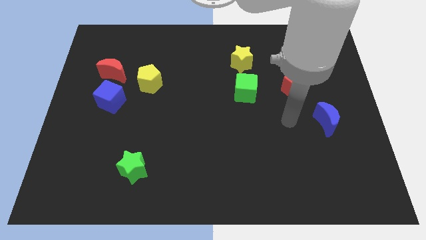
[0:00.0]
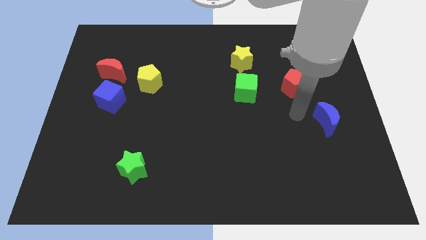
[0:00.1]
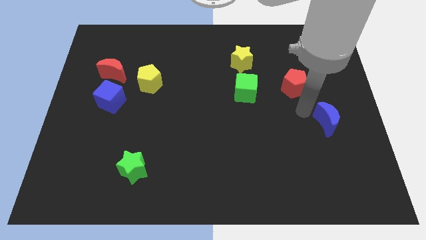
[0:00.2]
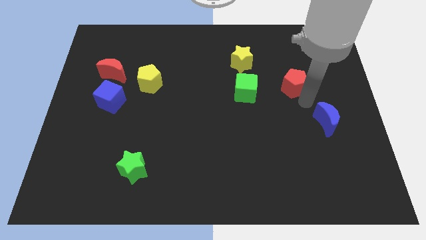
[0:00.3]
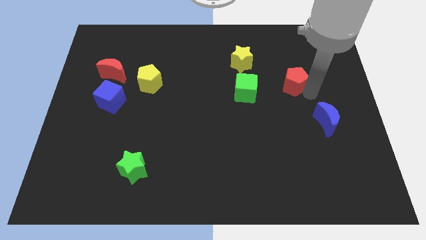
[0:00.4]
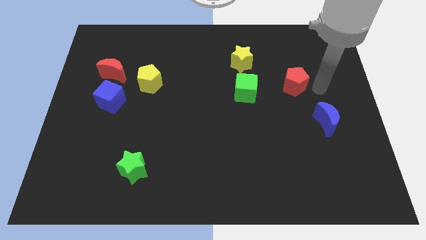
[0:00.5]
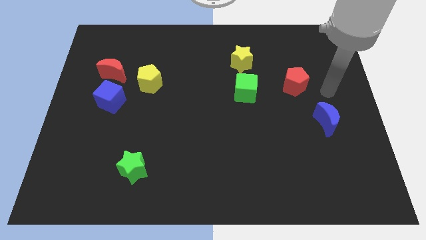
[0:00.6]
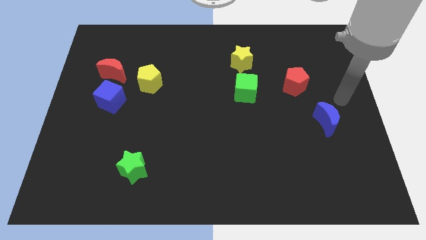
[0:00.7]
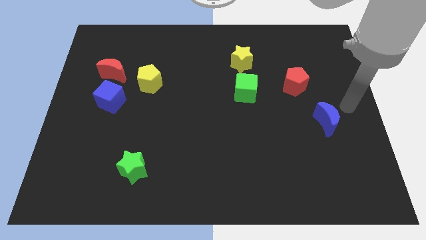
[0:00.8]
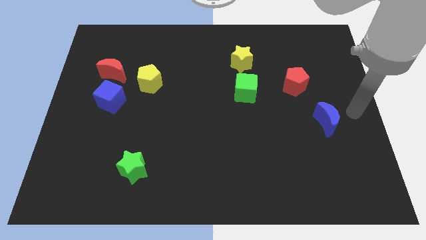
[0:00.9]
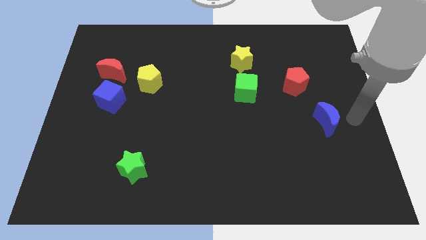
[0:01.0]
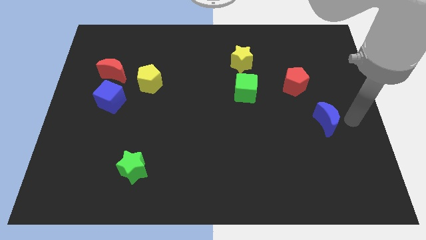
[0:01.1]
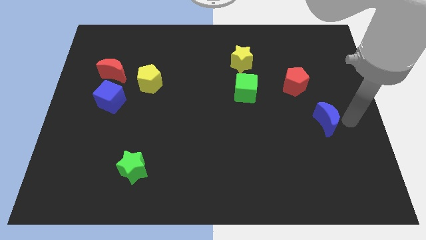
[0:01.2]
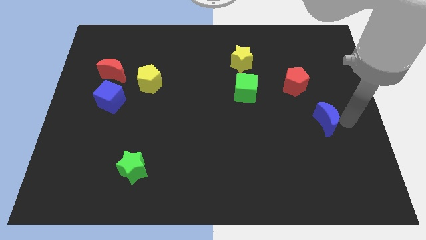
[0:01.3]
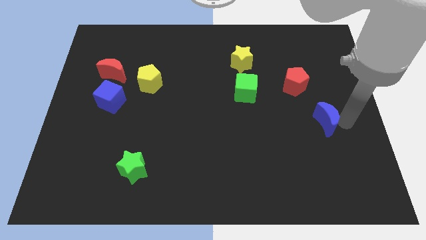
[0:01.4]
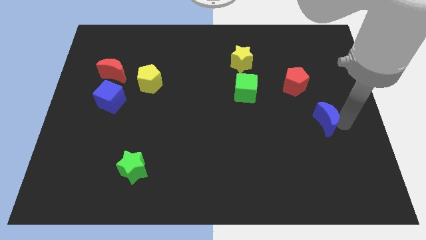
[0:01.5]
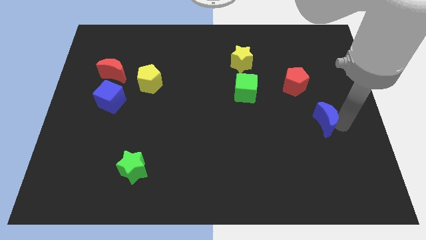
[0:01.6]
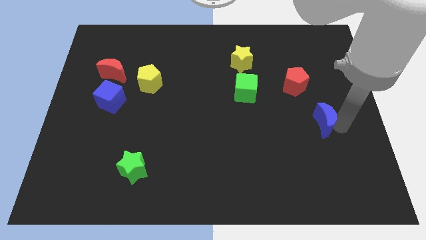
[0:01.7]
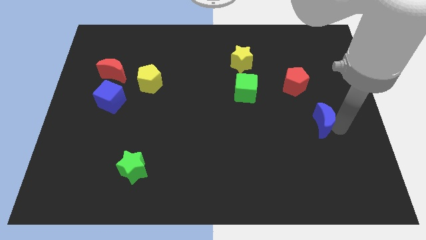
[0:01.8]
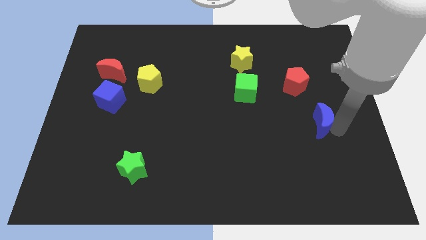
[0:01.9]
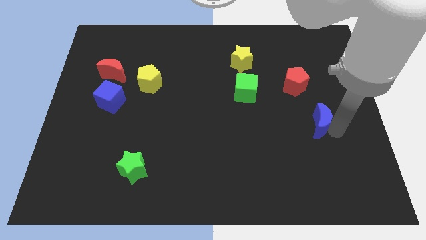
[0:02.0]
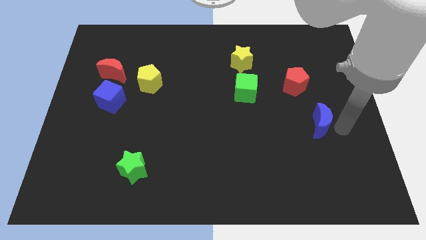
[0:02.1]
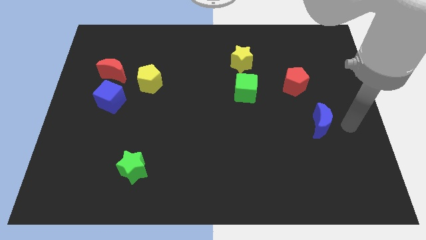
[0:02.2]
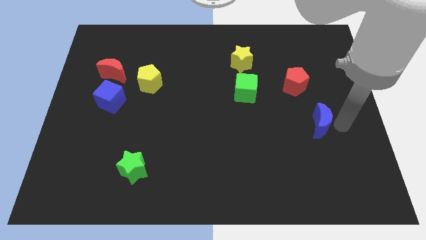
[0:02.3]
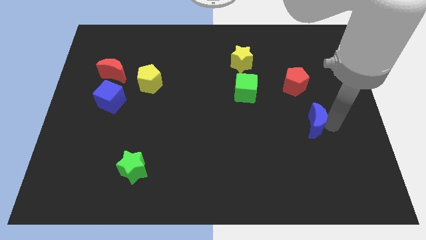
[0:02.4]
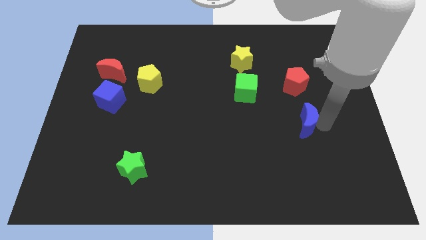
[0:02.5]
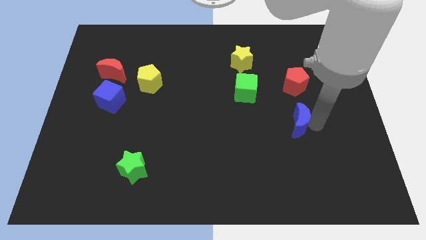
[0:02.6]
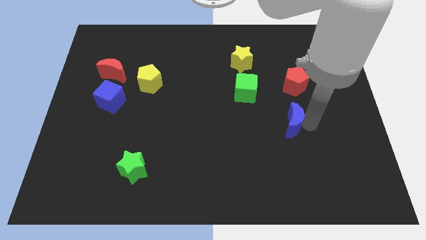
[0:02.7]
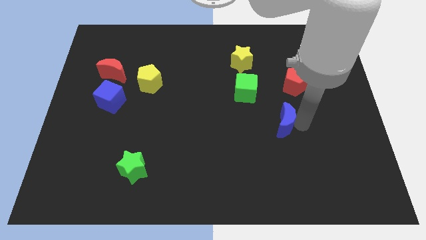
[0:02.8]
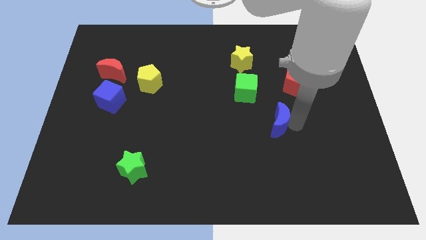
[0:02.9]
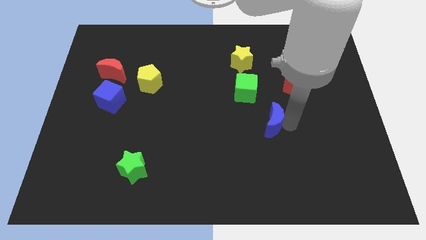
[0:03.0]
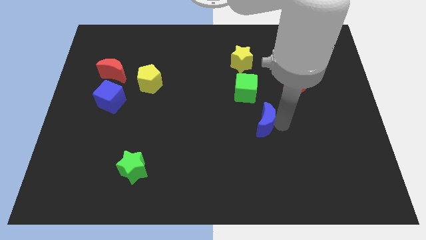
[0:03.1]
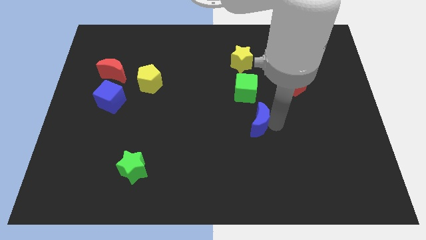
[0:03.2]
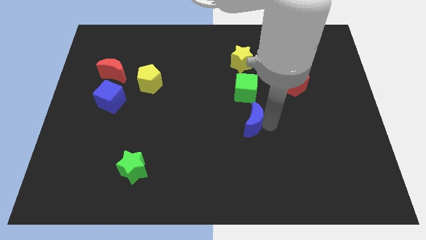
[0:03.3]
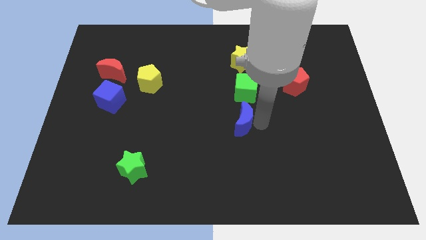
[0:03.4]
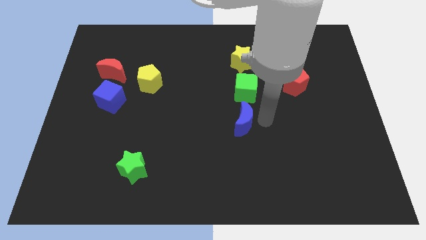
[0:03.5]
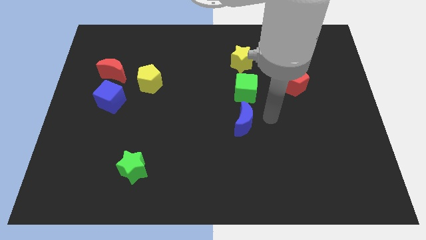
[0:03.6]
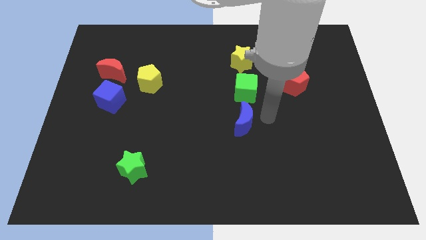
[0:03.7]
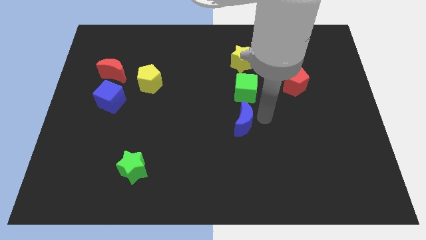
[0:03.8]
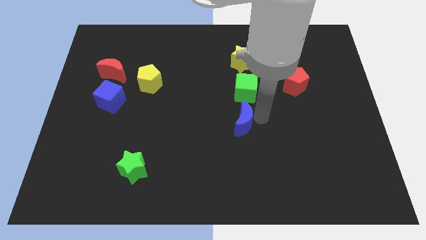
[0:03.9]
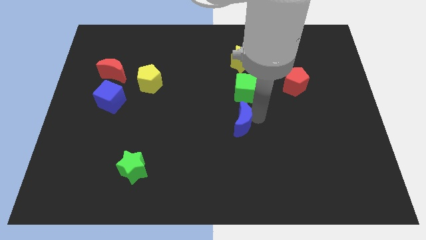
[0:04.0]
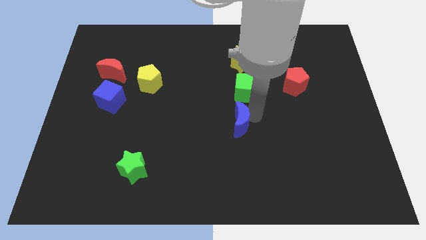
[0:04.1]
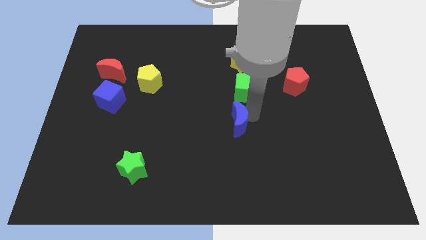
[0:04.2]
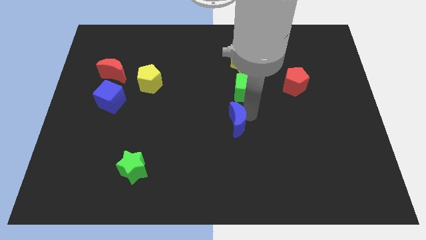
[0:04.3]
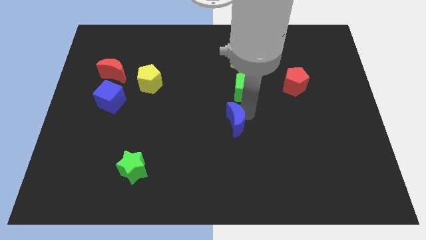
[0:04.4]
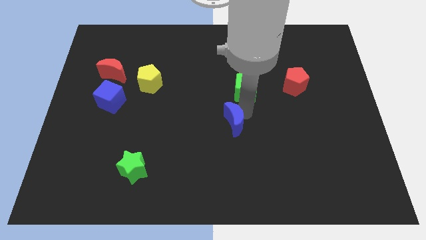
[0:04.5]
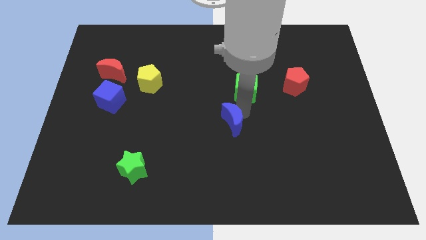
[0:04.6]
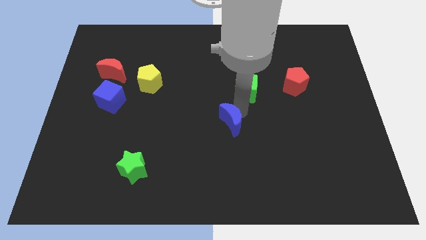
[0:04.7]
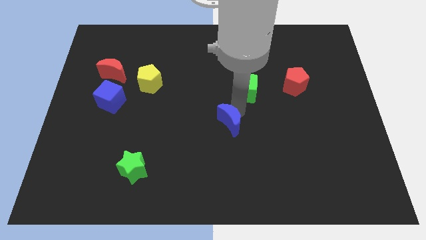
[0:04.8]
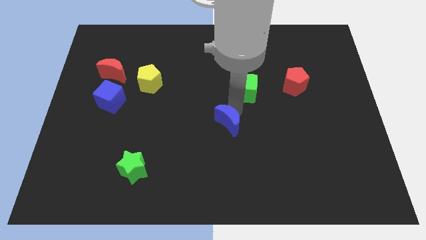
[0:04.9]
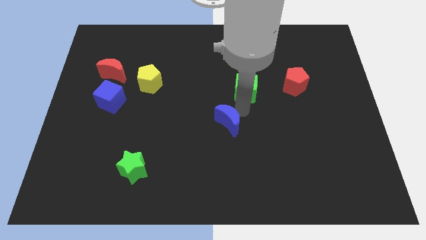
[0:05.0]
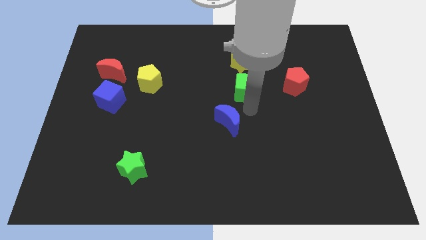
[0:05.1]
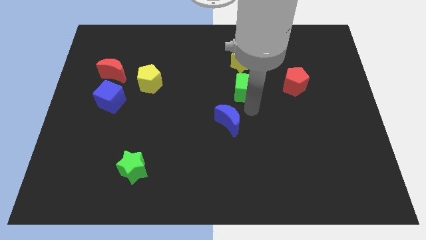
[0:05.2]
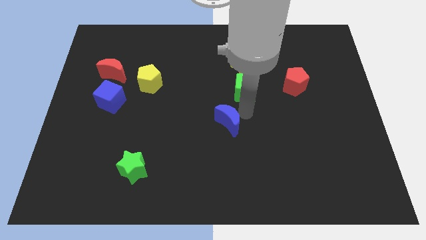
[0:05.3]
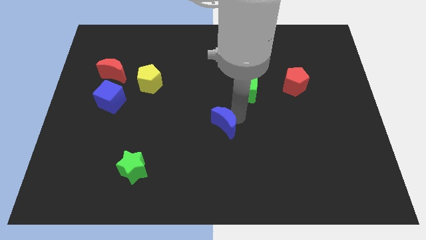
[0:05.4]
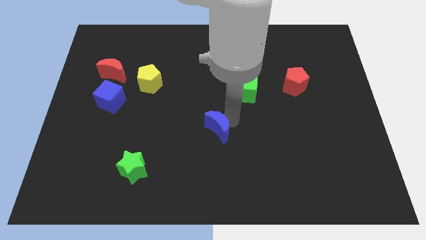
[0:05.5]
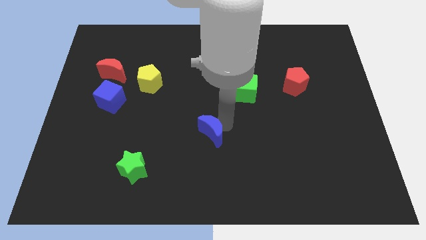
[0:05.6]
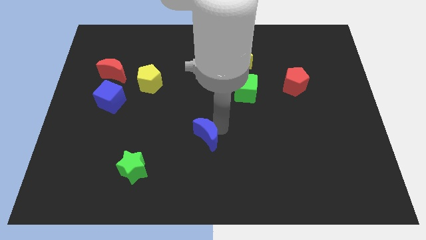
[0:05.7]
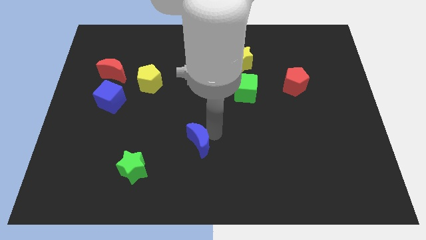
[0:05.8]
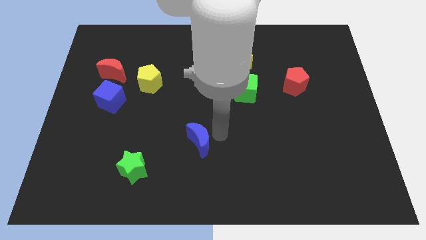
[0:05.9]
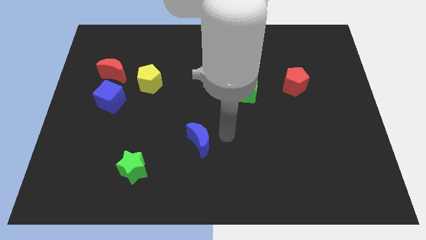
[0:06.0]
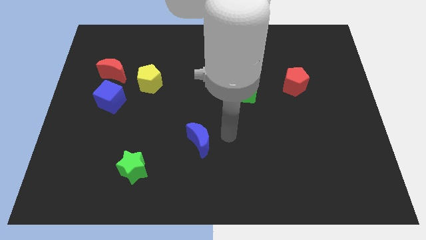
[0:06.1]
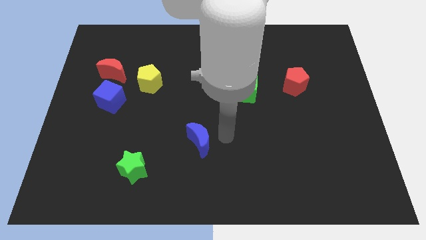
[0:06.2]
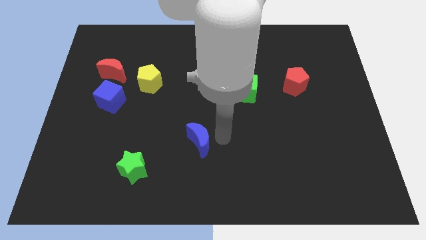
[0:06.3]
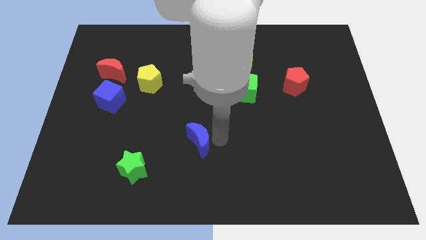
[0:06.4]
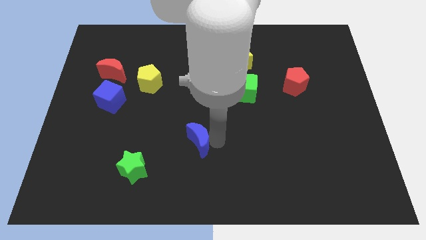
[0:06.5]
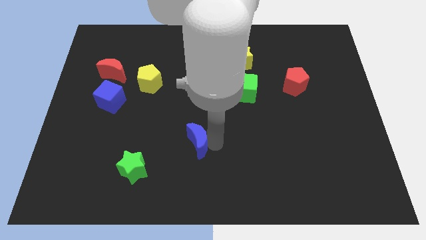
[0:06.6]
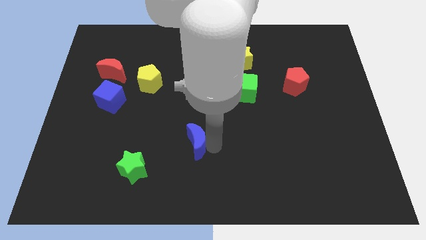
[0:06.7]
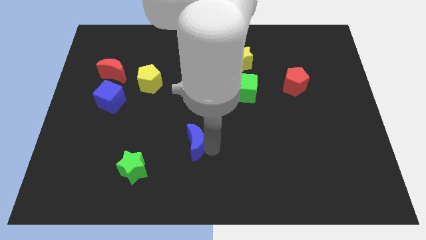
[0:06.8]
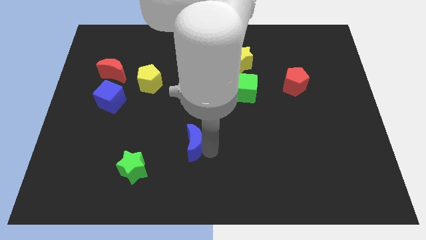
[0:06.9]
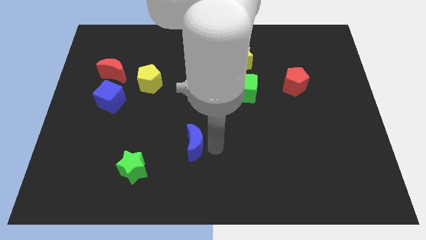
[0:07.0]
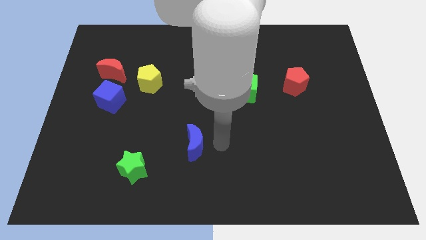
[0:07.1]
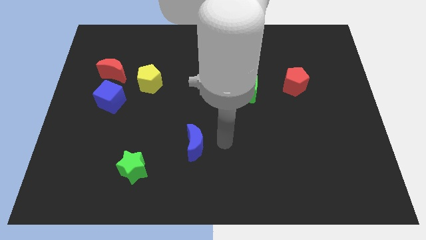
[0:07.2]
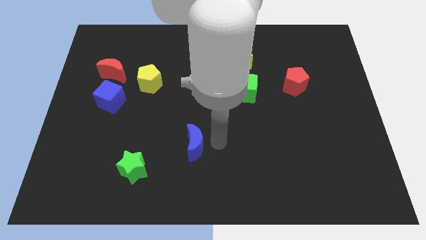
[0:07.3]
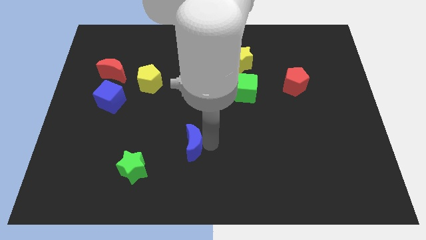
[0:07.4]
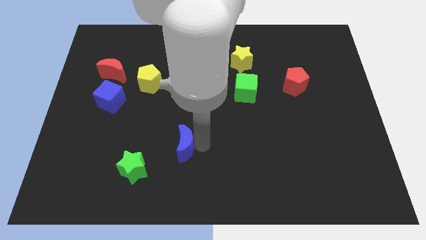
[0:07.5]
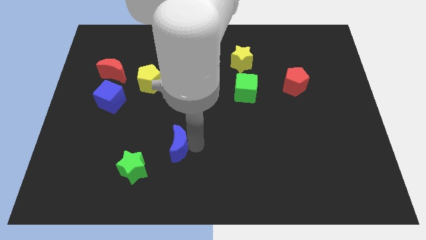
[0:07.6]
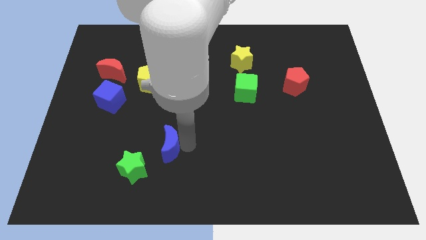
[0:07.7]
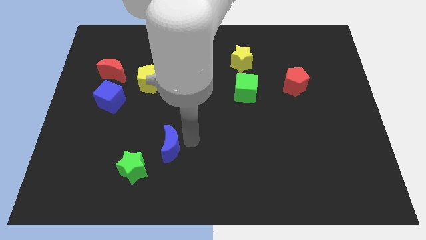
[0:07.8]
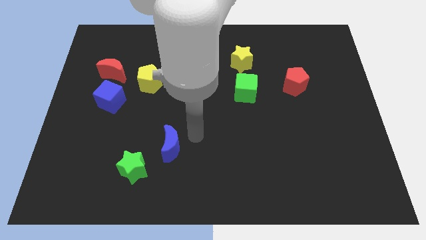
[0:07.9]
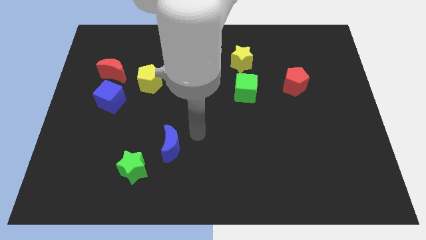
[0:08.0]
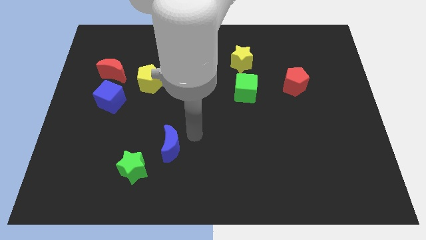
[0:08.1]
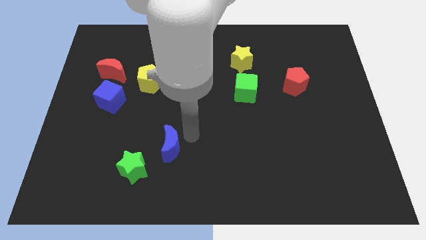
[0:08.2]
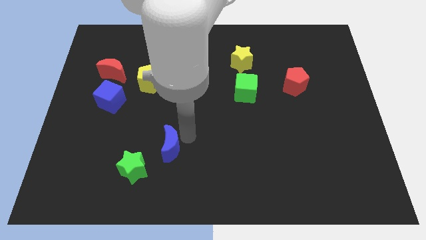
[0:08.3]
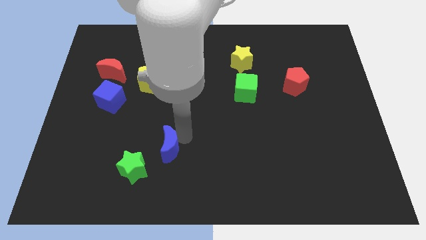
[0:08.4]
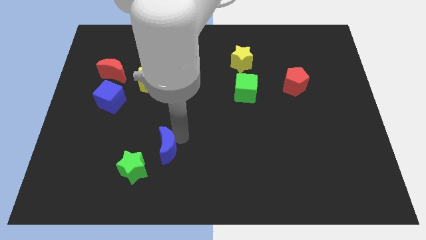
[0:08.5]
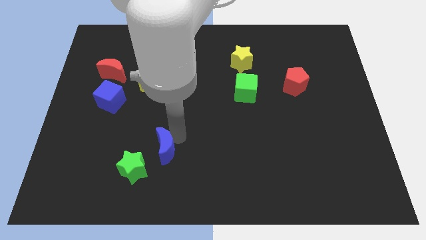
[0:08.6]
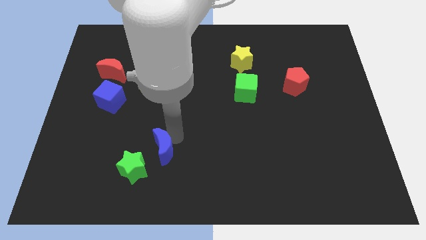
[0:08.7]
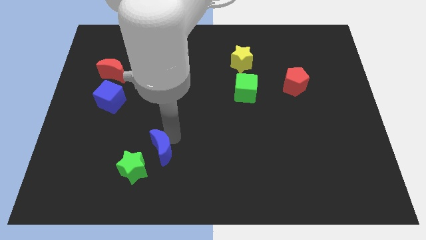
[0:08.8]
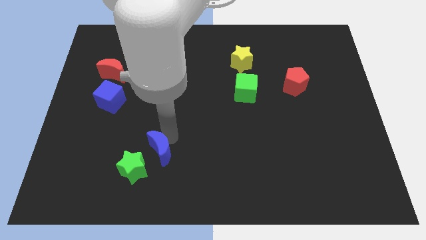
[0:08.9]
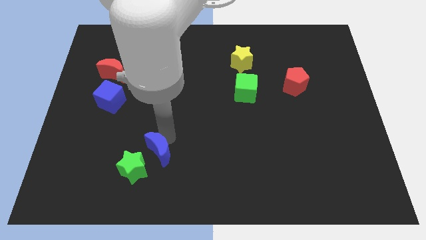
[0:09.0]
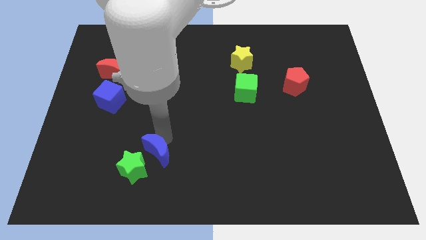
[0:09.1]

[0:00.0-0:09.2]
move the blue moon next to the green star
